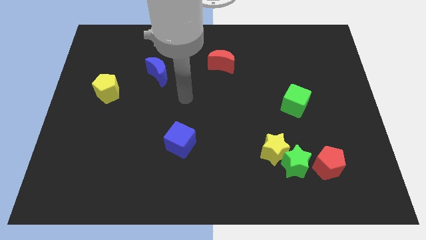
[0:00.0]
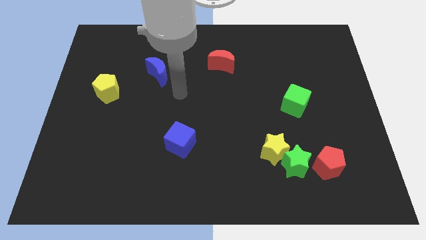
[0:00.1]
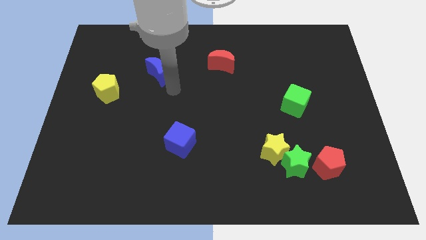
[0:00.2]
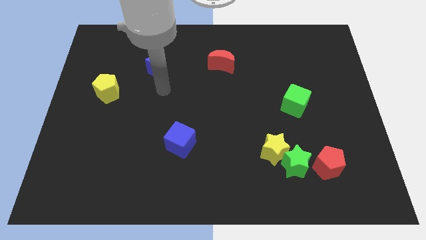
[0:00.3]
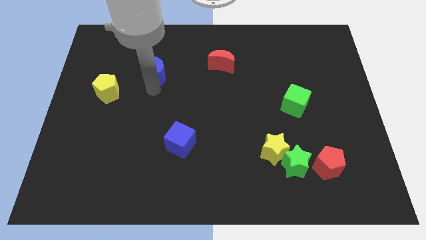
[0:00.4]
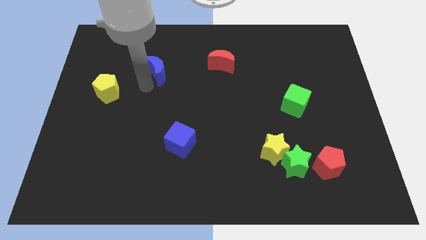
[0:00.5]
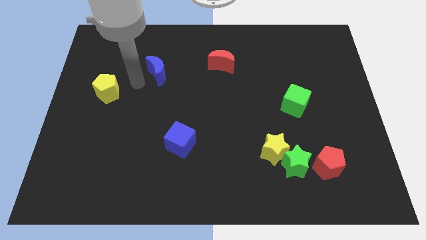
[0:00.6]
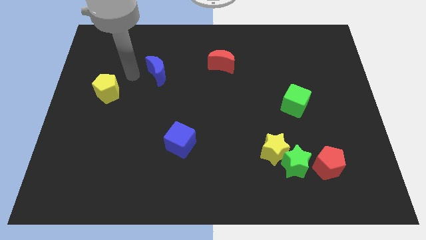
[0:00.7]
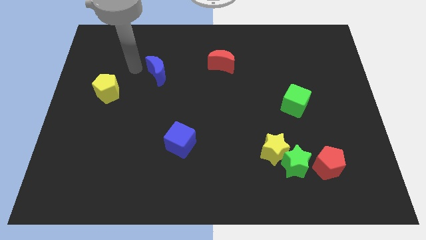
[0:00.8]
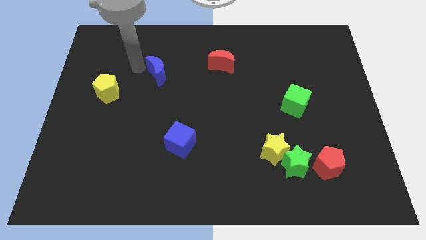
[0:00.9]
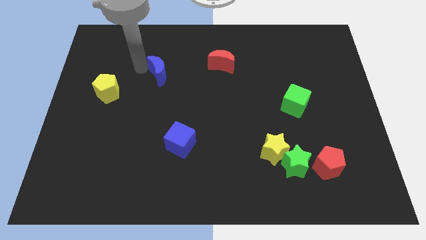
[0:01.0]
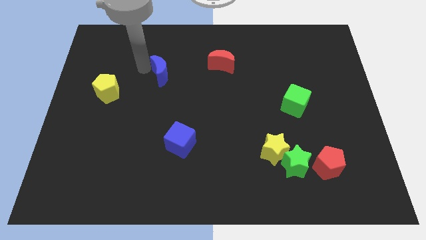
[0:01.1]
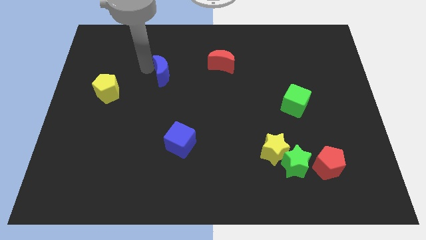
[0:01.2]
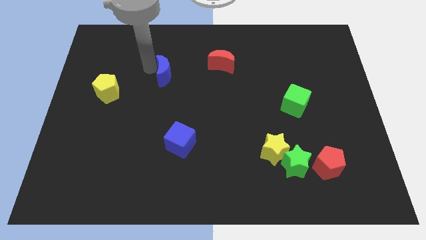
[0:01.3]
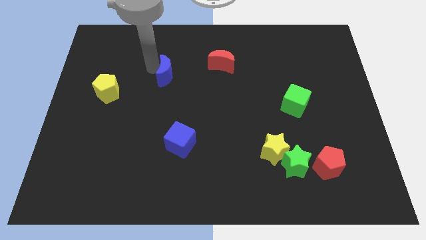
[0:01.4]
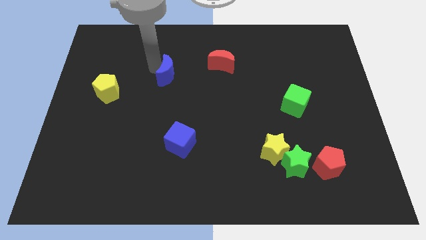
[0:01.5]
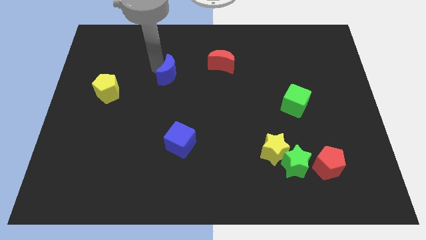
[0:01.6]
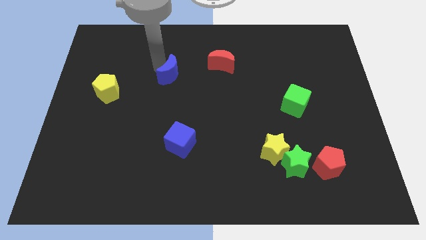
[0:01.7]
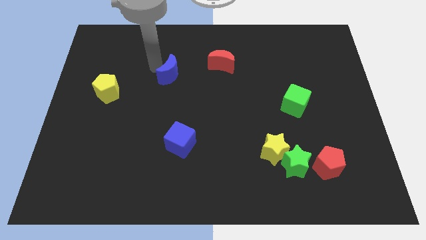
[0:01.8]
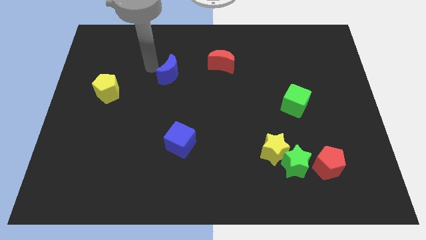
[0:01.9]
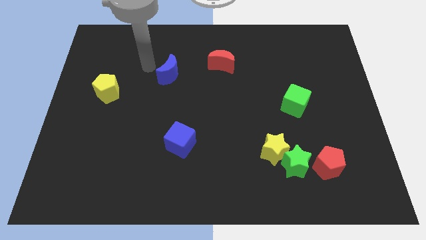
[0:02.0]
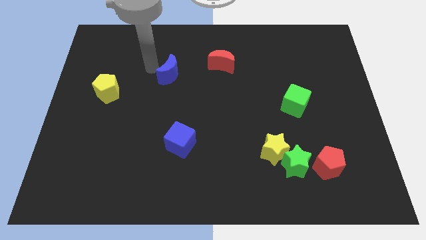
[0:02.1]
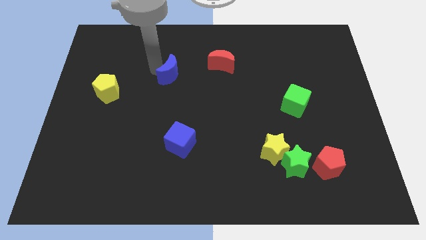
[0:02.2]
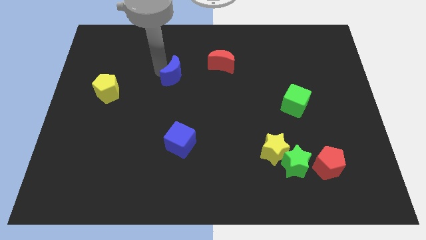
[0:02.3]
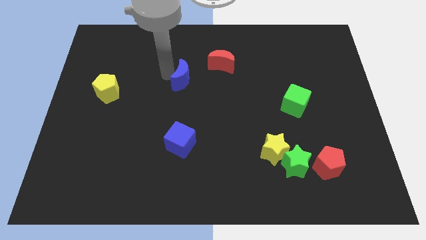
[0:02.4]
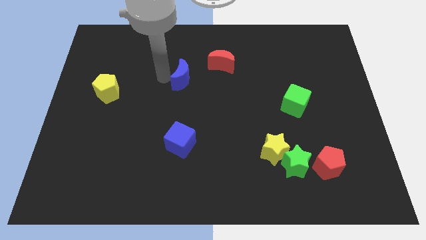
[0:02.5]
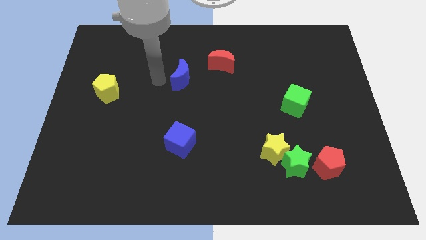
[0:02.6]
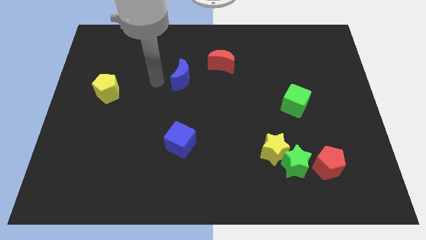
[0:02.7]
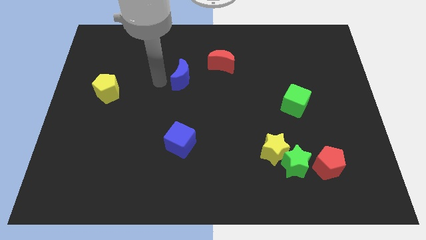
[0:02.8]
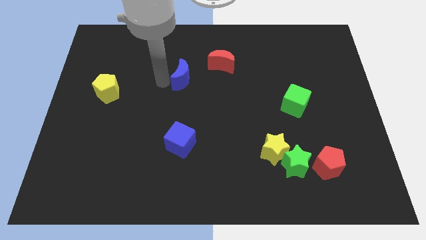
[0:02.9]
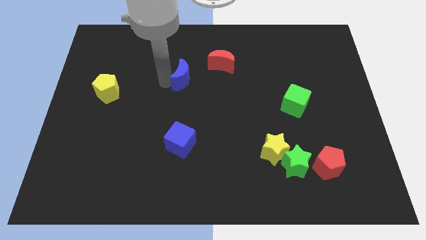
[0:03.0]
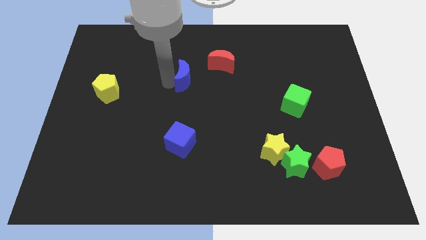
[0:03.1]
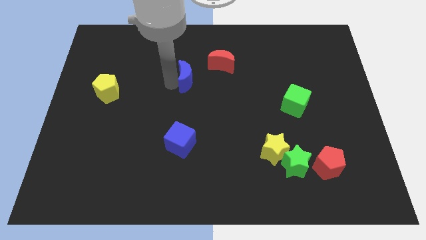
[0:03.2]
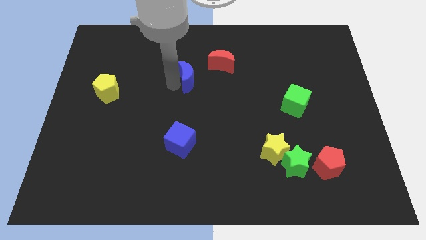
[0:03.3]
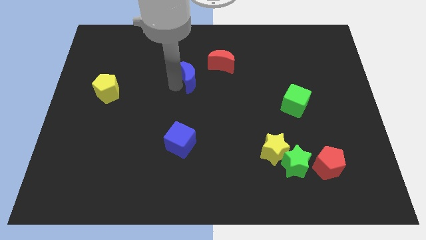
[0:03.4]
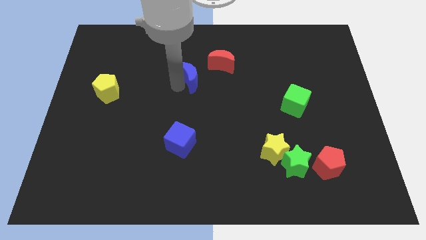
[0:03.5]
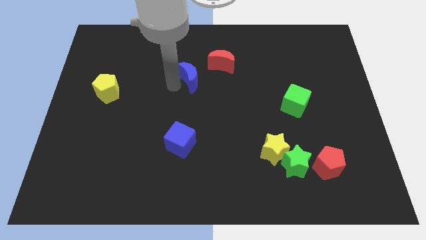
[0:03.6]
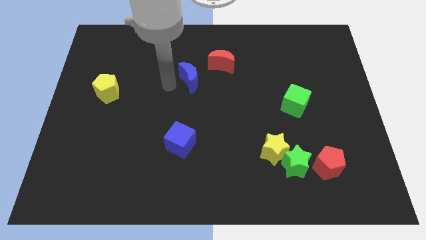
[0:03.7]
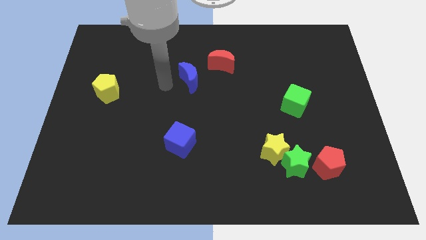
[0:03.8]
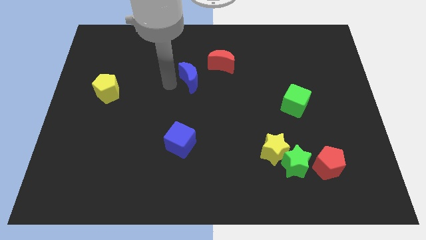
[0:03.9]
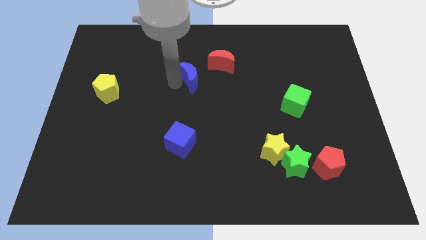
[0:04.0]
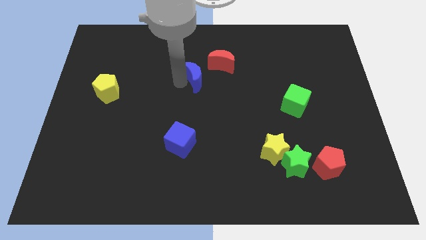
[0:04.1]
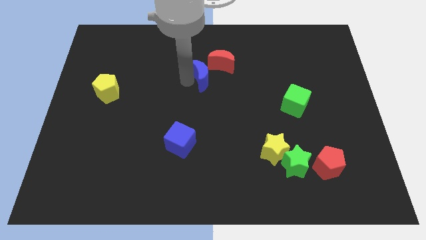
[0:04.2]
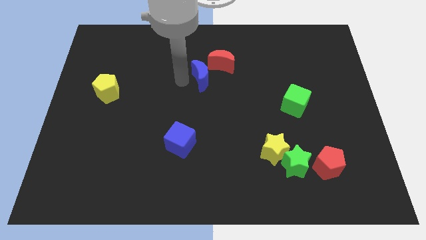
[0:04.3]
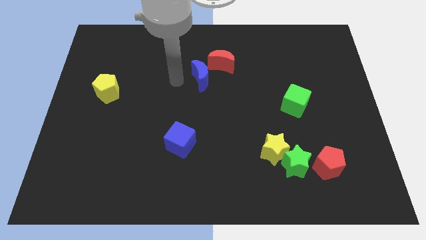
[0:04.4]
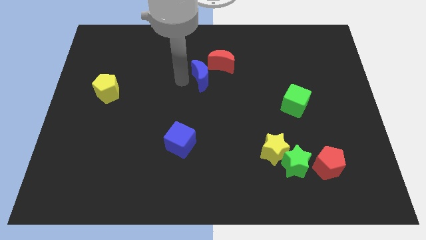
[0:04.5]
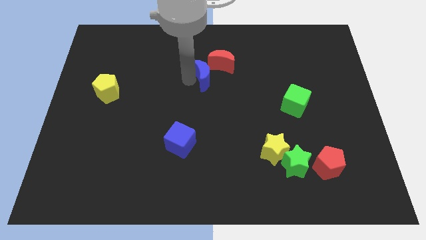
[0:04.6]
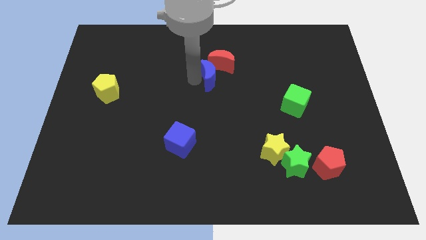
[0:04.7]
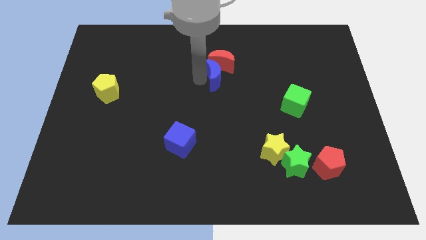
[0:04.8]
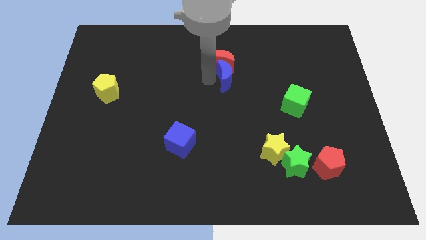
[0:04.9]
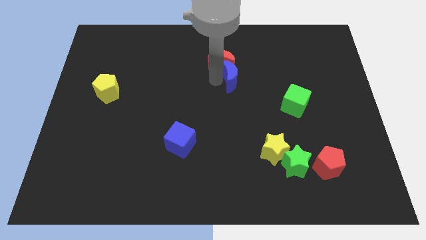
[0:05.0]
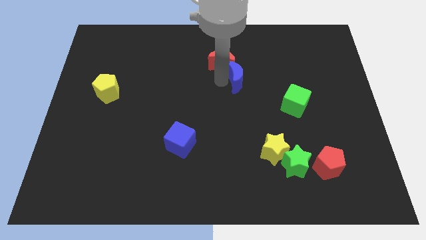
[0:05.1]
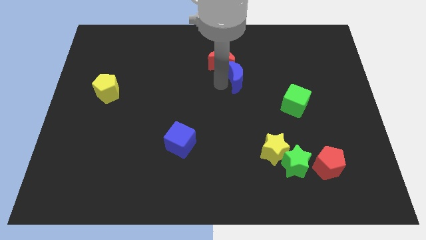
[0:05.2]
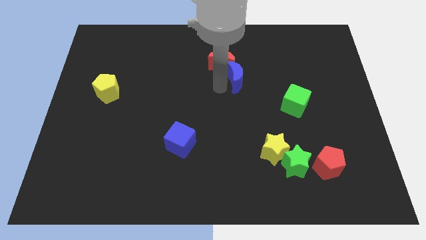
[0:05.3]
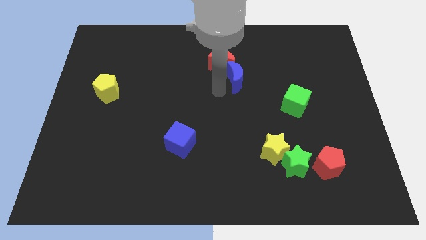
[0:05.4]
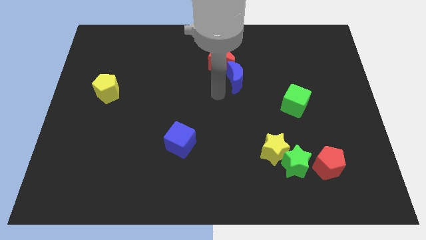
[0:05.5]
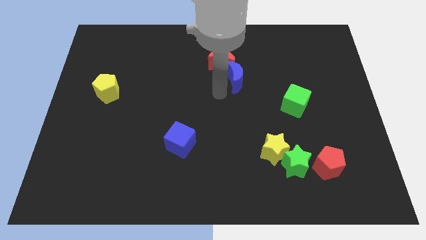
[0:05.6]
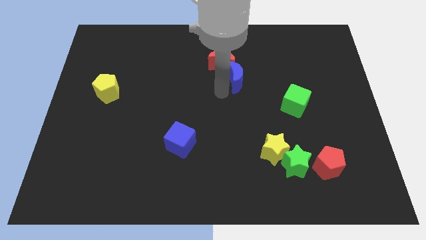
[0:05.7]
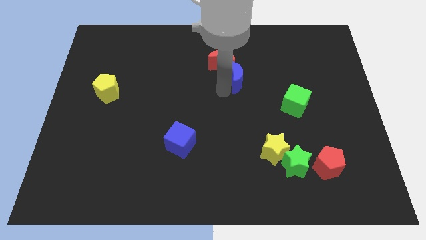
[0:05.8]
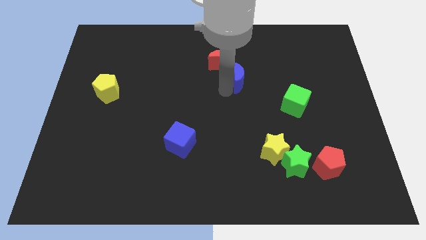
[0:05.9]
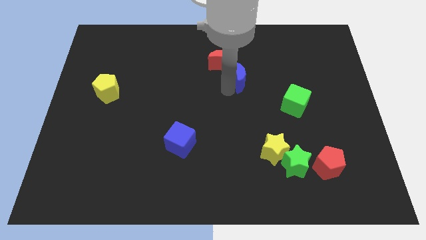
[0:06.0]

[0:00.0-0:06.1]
slide the blue moon to the right

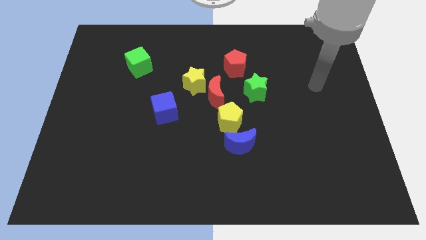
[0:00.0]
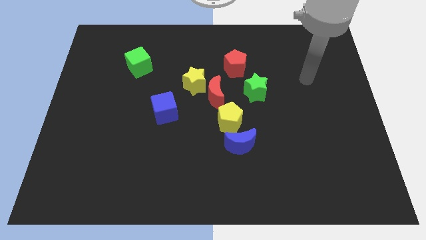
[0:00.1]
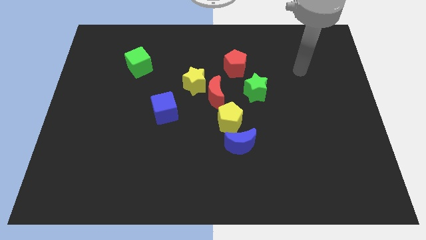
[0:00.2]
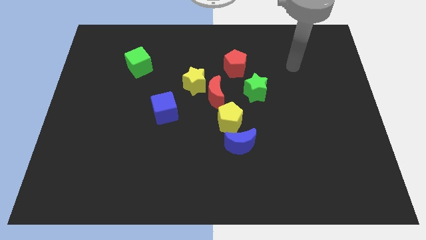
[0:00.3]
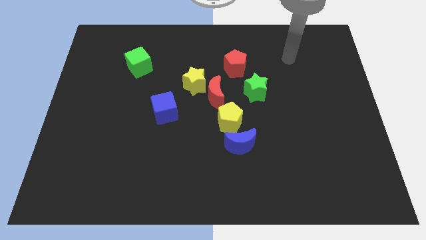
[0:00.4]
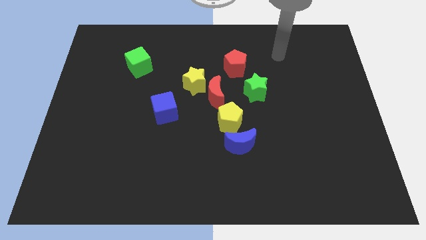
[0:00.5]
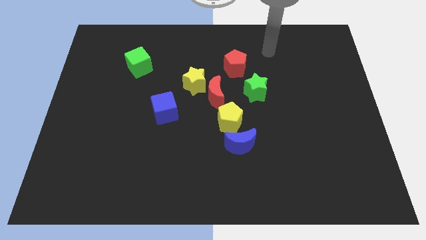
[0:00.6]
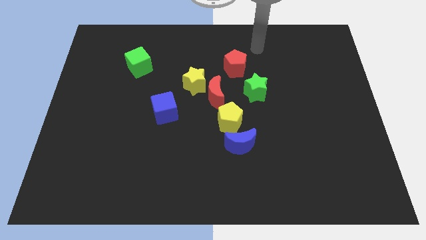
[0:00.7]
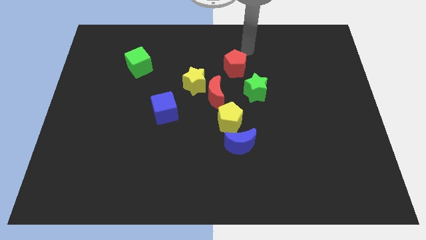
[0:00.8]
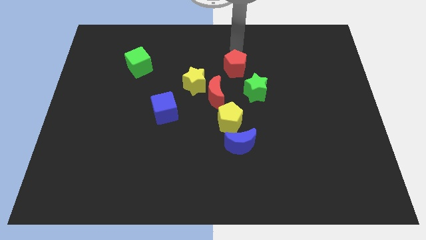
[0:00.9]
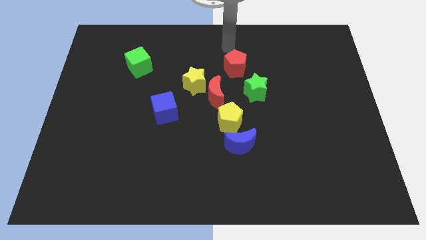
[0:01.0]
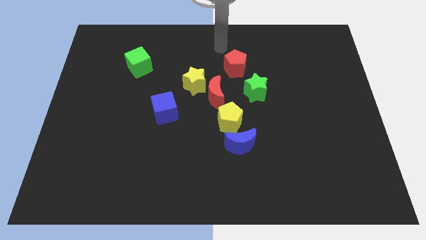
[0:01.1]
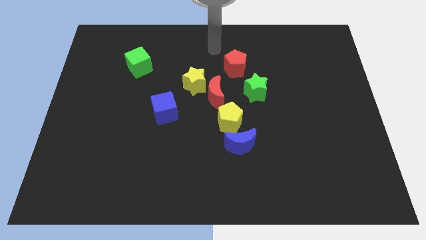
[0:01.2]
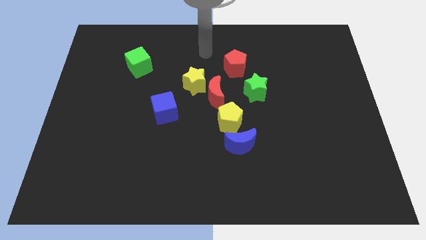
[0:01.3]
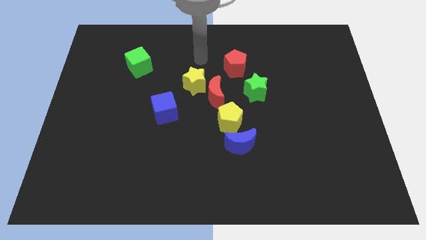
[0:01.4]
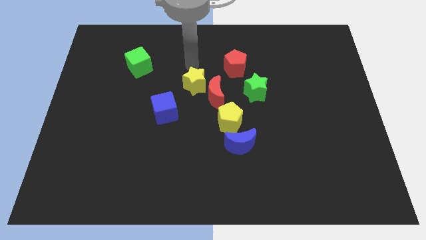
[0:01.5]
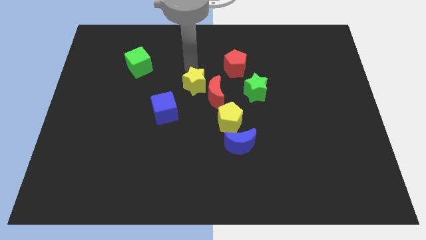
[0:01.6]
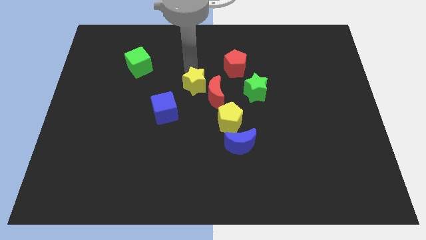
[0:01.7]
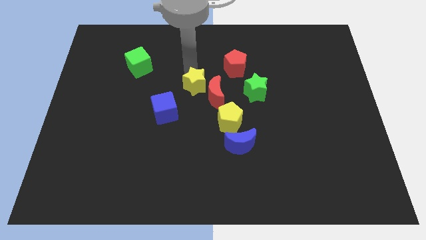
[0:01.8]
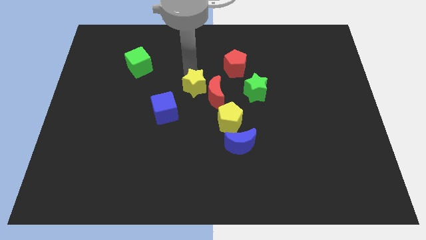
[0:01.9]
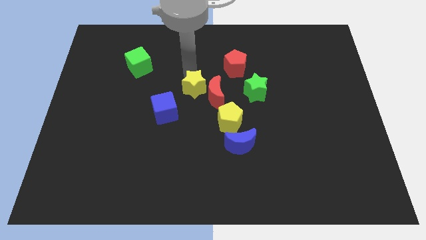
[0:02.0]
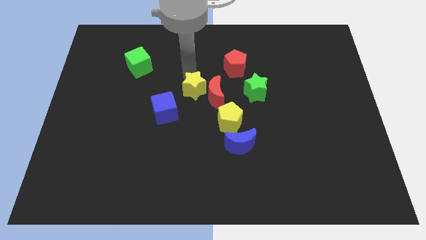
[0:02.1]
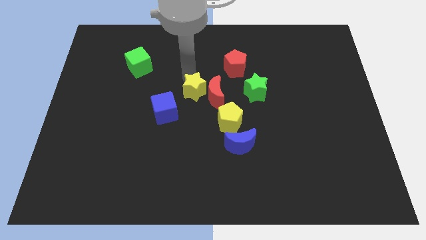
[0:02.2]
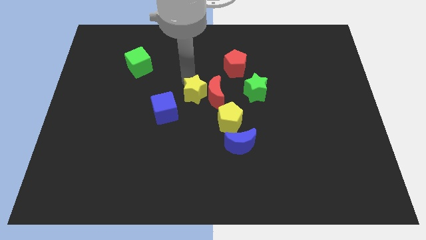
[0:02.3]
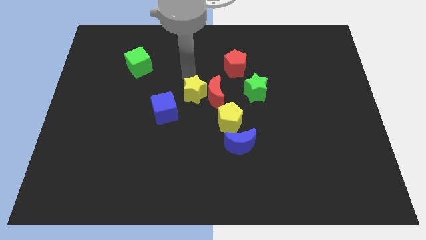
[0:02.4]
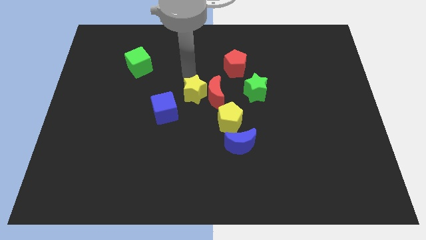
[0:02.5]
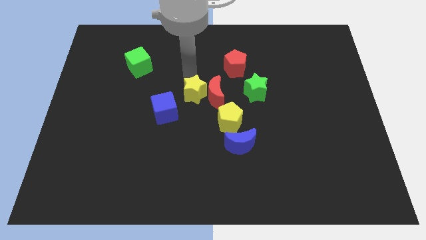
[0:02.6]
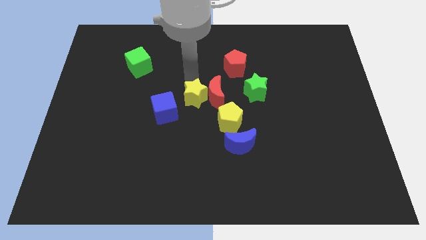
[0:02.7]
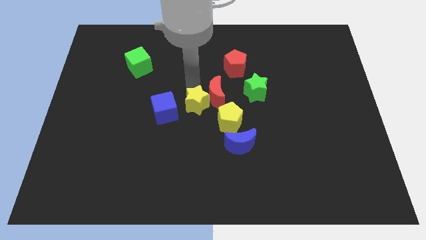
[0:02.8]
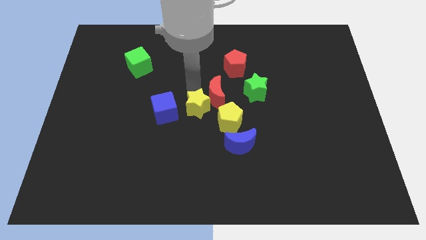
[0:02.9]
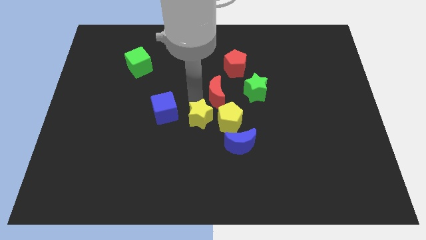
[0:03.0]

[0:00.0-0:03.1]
slide the yellow star a bit downwards and then to the right
